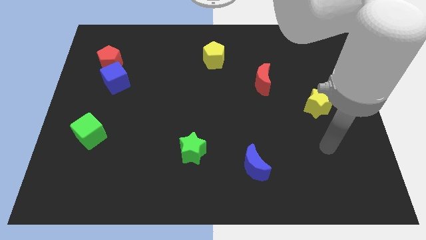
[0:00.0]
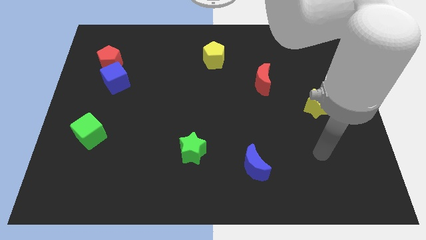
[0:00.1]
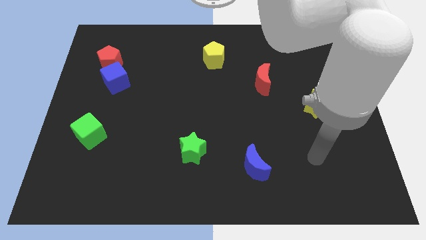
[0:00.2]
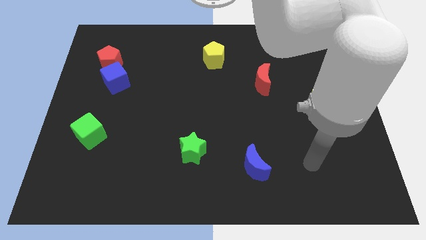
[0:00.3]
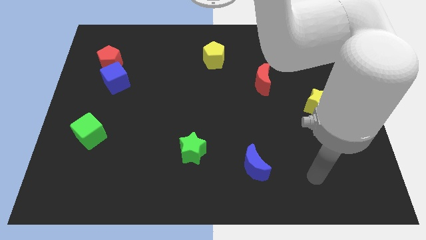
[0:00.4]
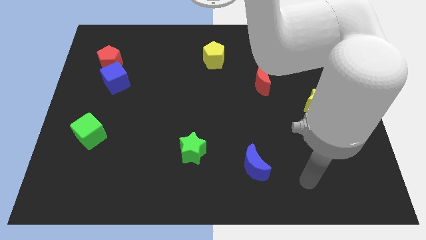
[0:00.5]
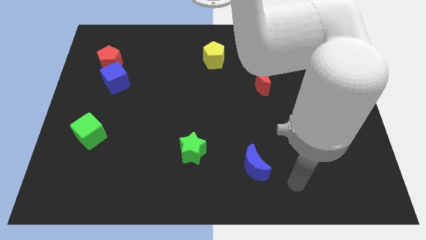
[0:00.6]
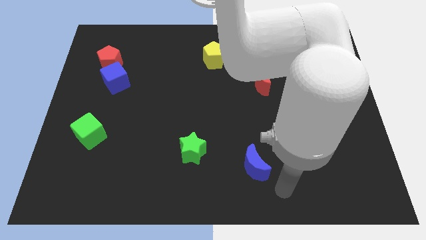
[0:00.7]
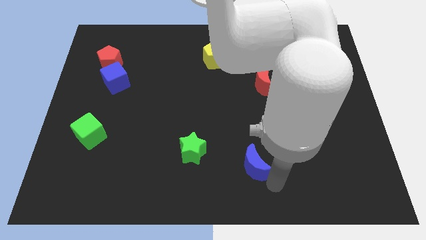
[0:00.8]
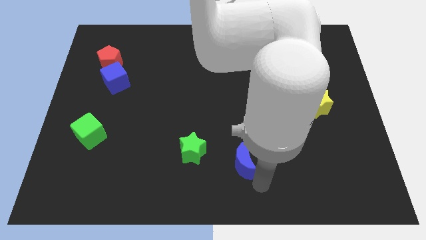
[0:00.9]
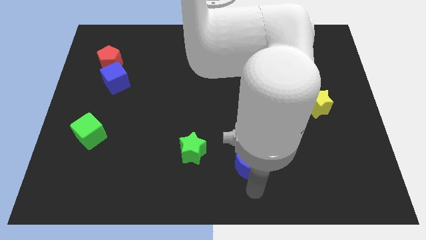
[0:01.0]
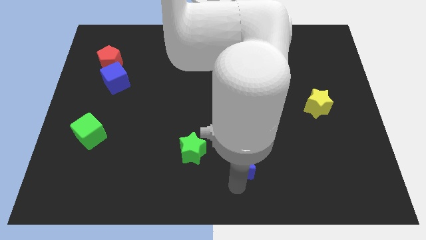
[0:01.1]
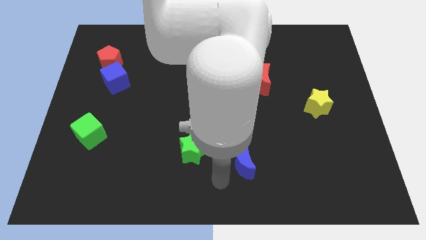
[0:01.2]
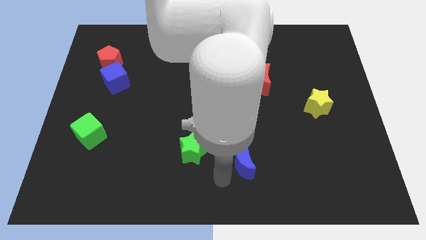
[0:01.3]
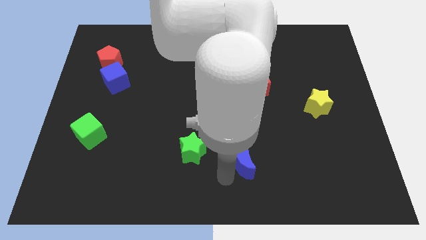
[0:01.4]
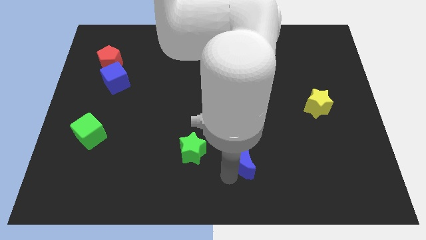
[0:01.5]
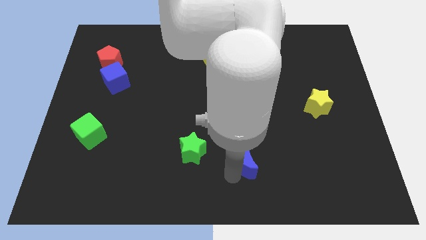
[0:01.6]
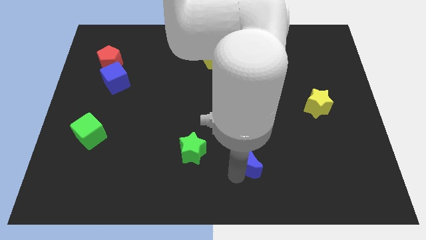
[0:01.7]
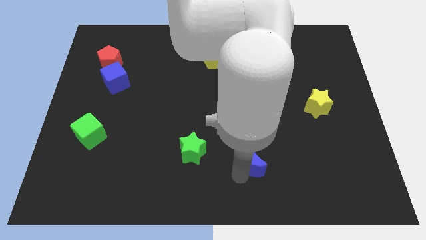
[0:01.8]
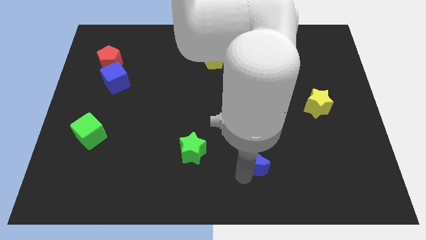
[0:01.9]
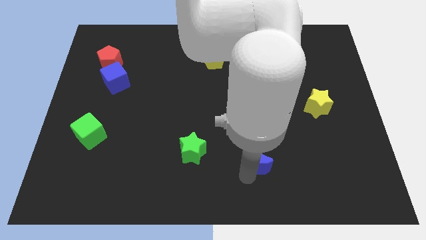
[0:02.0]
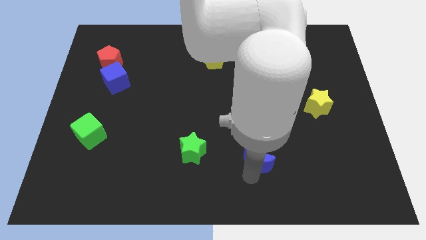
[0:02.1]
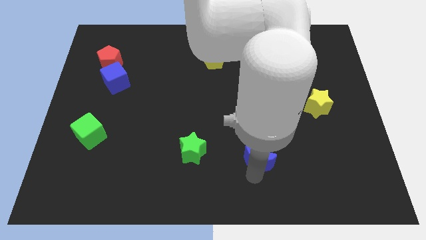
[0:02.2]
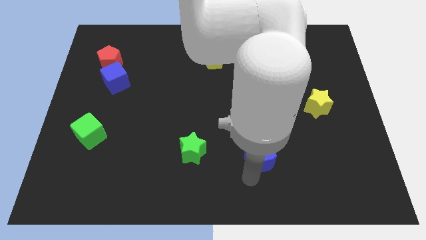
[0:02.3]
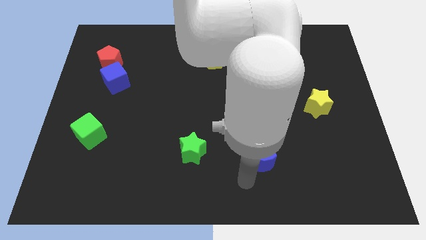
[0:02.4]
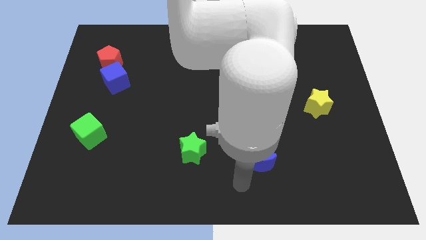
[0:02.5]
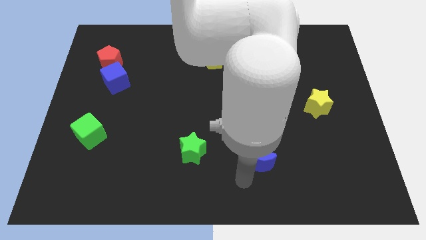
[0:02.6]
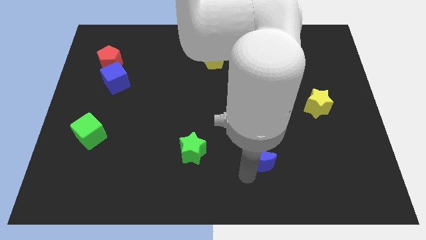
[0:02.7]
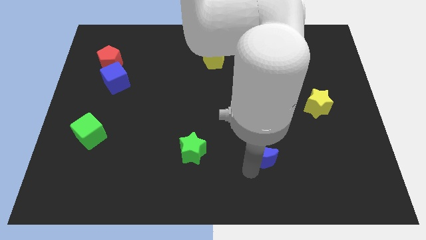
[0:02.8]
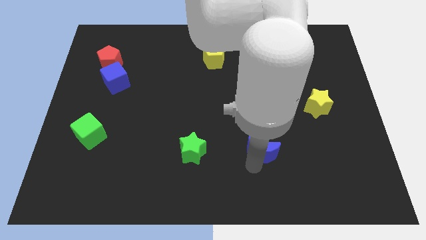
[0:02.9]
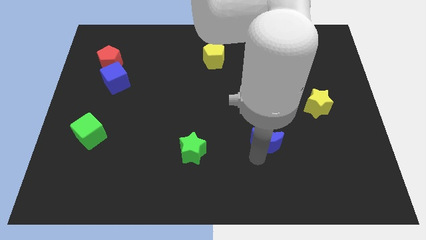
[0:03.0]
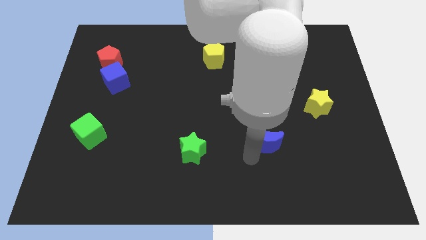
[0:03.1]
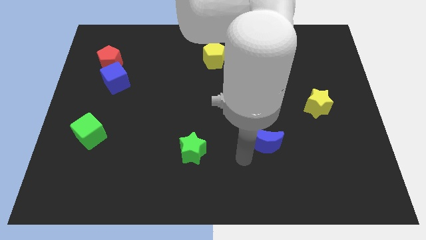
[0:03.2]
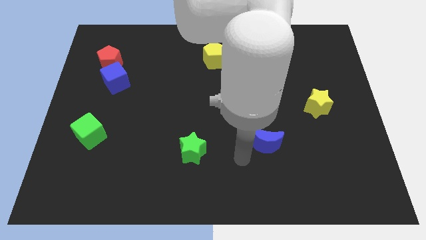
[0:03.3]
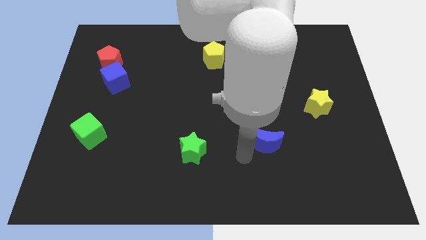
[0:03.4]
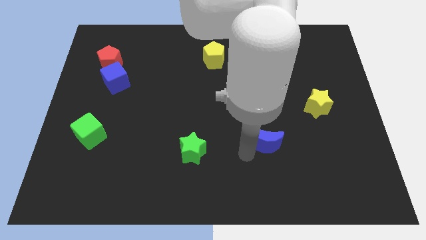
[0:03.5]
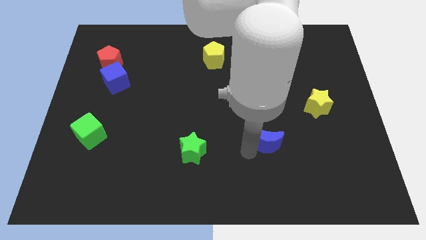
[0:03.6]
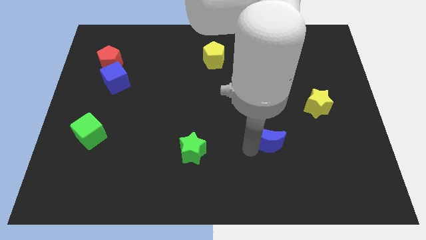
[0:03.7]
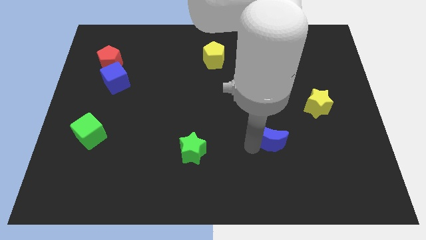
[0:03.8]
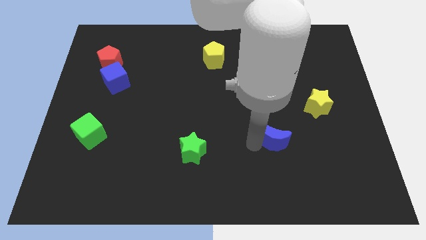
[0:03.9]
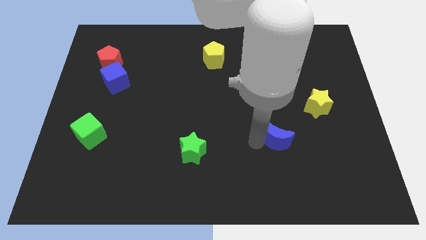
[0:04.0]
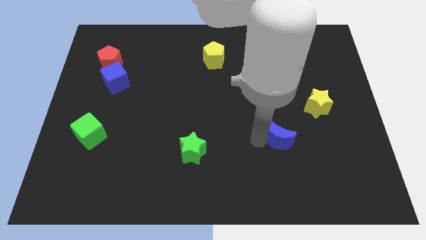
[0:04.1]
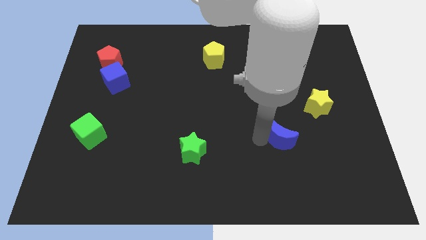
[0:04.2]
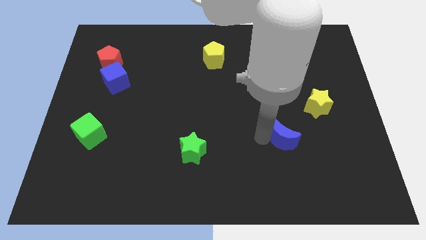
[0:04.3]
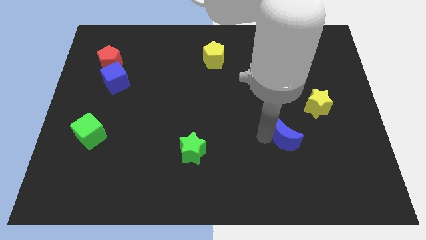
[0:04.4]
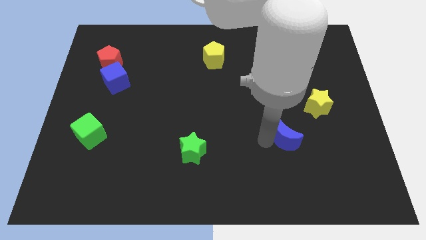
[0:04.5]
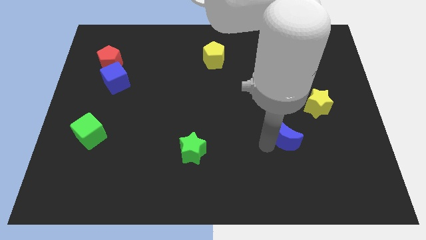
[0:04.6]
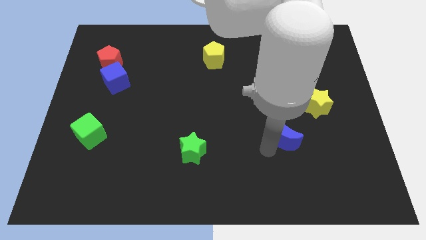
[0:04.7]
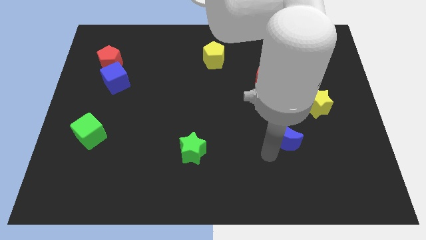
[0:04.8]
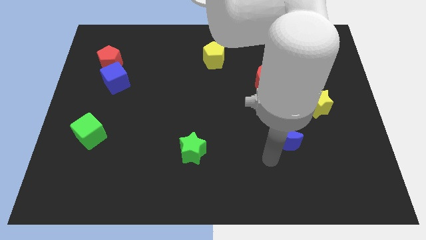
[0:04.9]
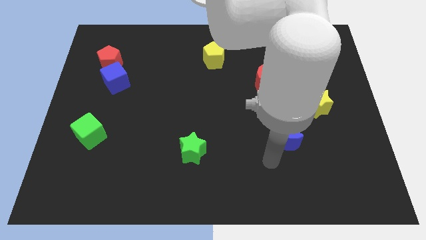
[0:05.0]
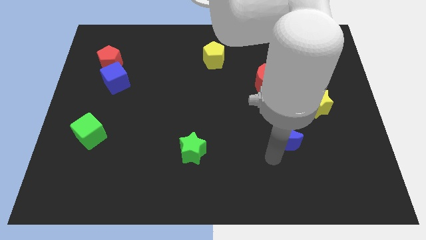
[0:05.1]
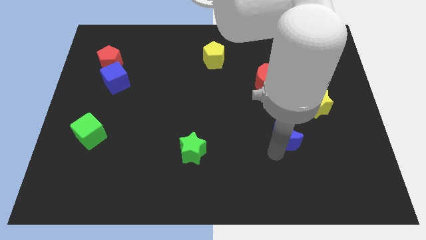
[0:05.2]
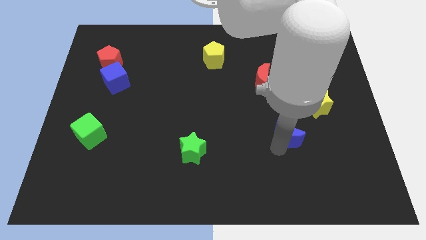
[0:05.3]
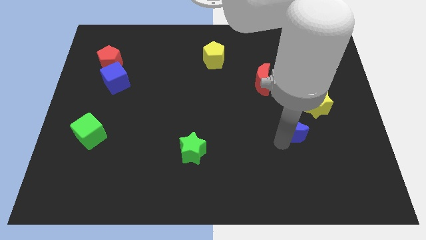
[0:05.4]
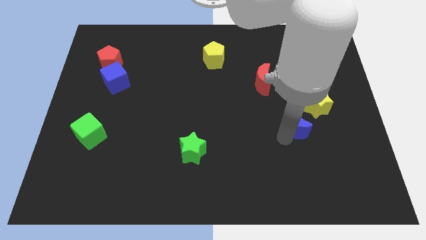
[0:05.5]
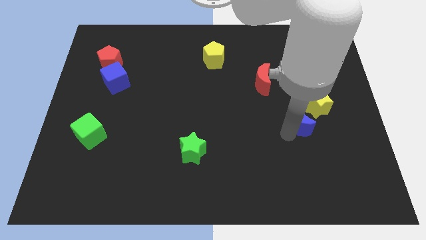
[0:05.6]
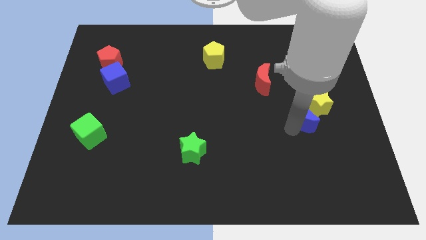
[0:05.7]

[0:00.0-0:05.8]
put the blue moon close to the yellow star

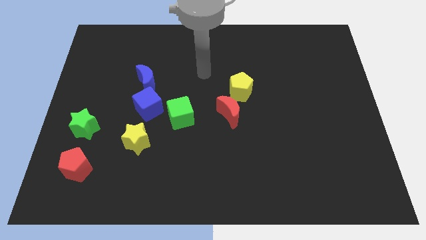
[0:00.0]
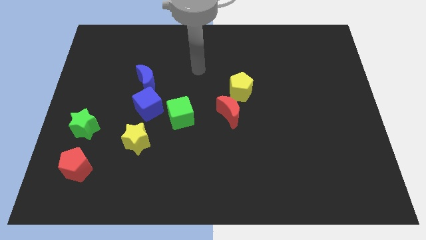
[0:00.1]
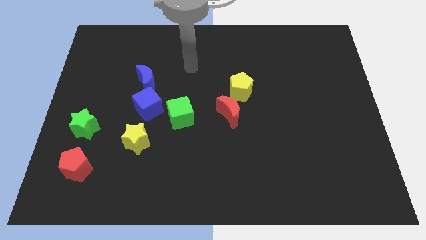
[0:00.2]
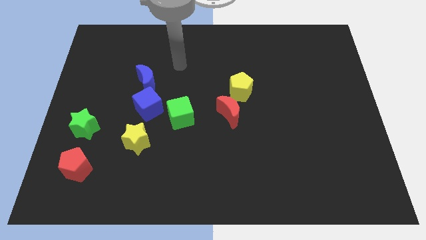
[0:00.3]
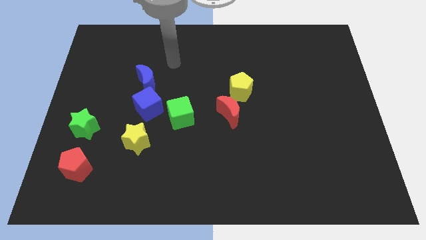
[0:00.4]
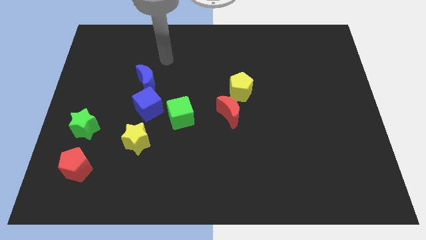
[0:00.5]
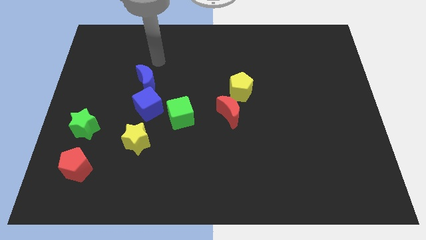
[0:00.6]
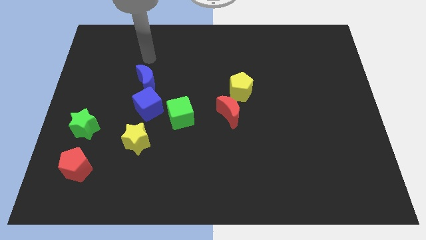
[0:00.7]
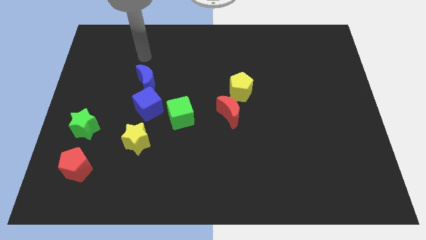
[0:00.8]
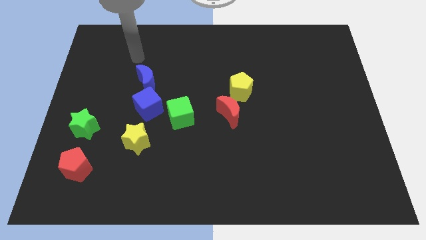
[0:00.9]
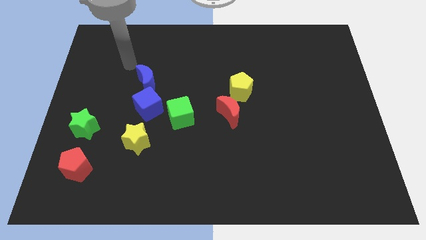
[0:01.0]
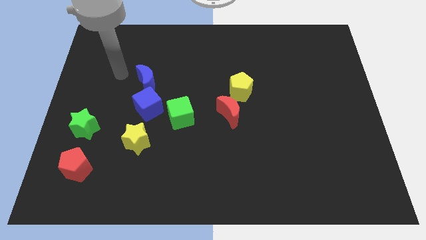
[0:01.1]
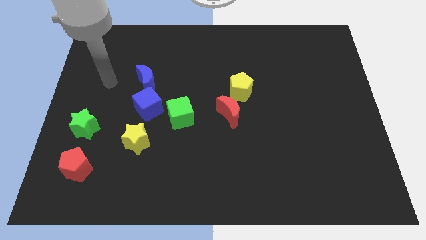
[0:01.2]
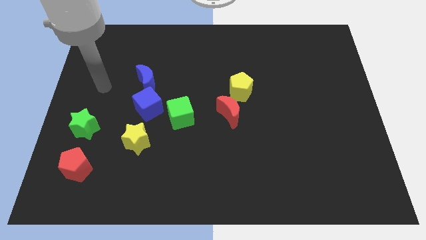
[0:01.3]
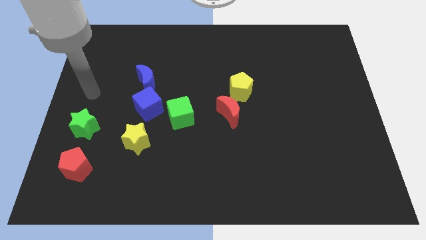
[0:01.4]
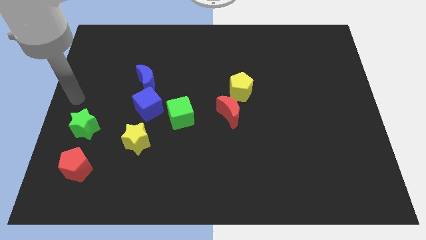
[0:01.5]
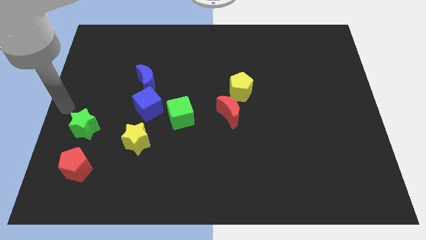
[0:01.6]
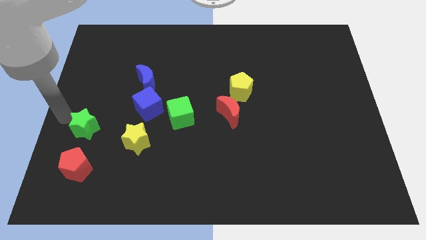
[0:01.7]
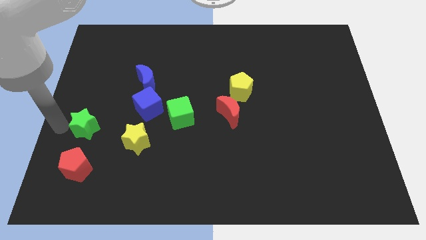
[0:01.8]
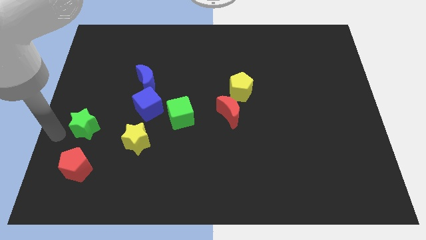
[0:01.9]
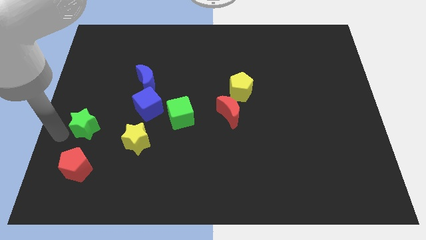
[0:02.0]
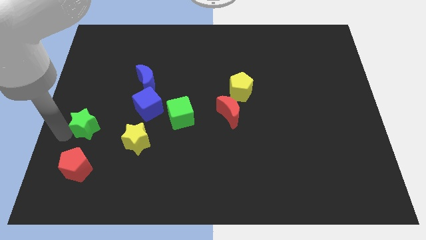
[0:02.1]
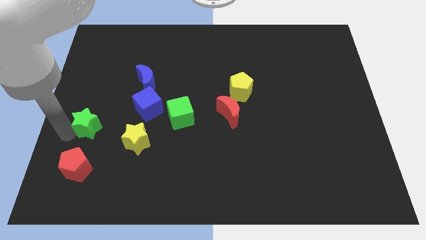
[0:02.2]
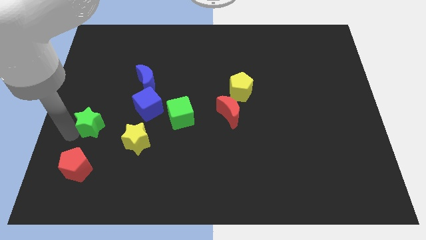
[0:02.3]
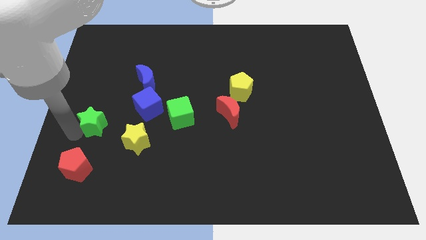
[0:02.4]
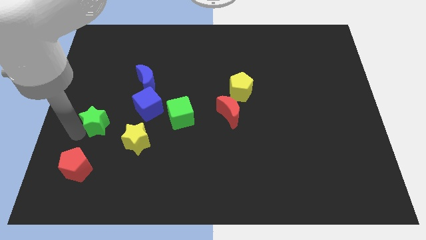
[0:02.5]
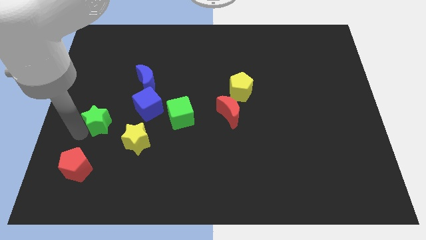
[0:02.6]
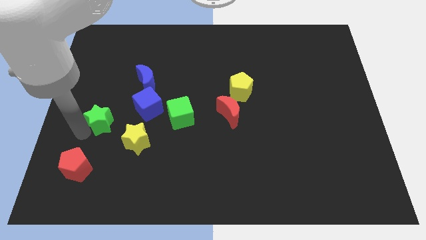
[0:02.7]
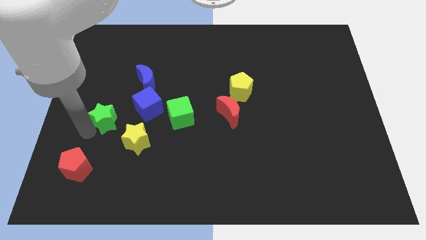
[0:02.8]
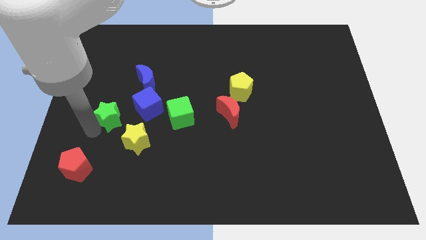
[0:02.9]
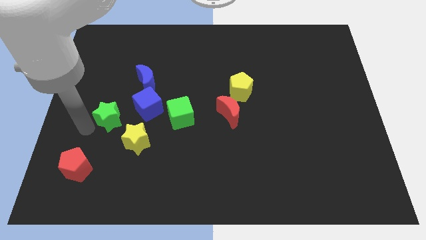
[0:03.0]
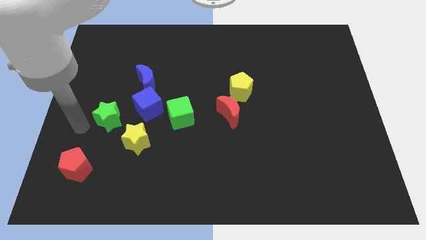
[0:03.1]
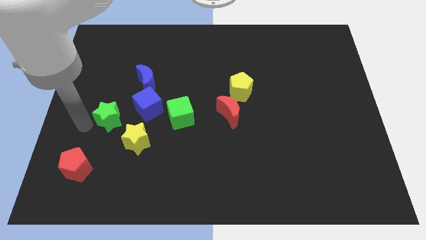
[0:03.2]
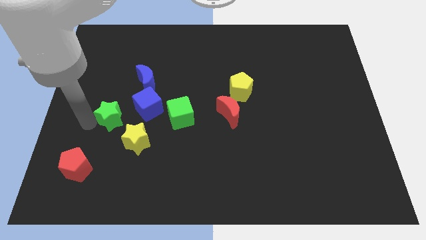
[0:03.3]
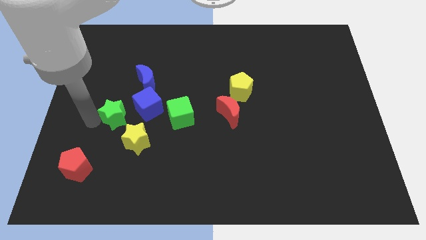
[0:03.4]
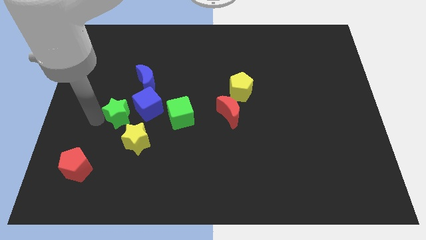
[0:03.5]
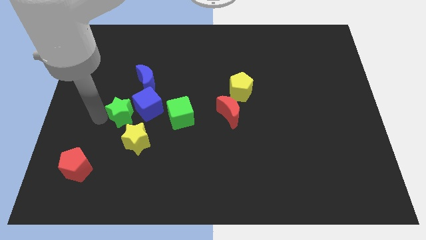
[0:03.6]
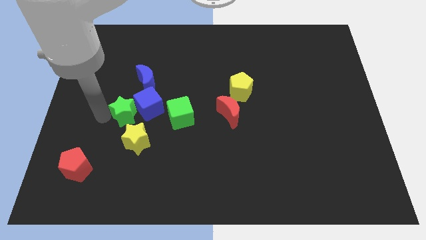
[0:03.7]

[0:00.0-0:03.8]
move the green star towards the blue cube
